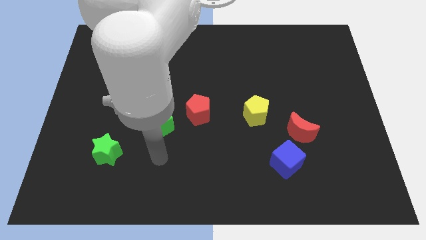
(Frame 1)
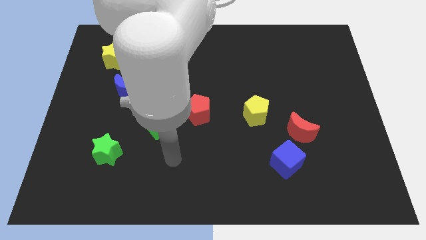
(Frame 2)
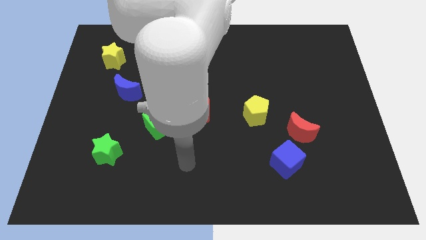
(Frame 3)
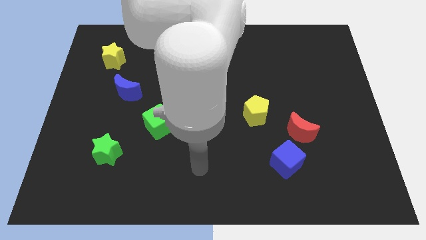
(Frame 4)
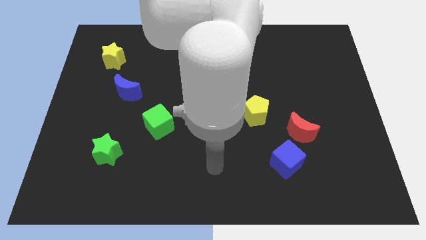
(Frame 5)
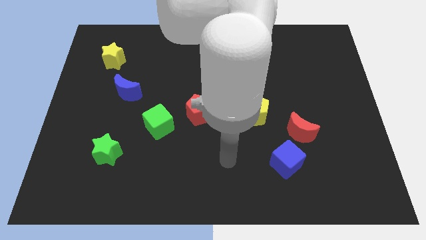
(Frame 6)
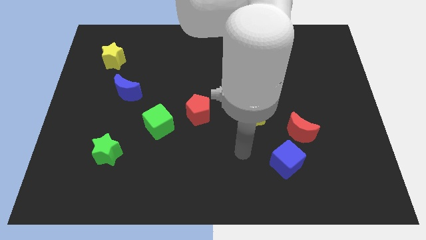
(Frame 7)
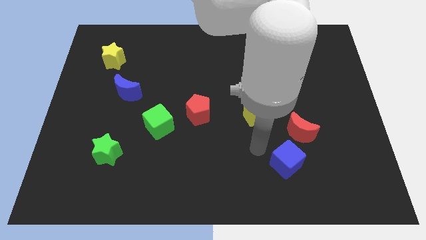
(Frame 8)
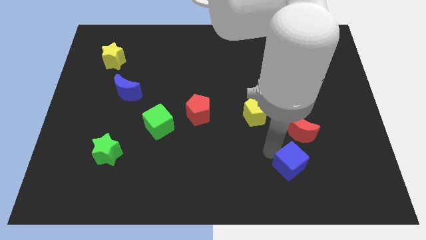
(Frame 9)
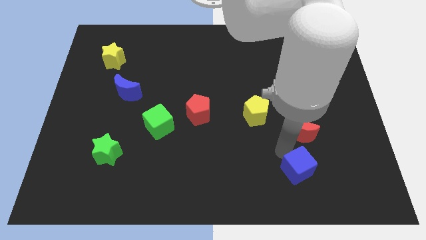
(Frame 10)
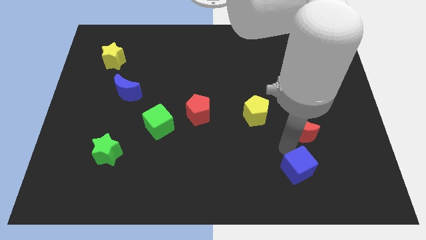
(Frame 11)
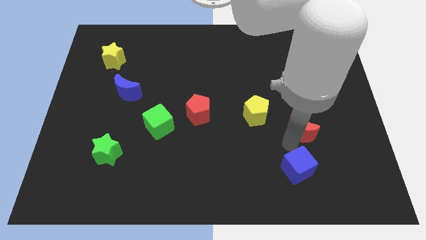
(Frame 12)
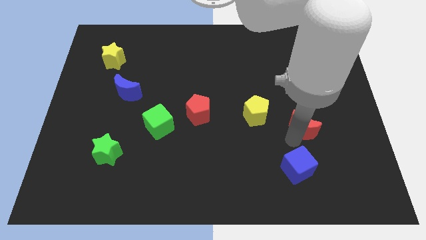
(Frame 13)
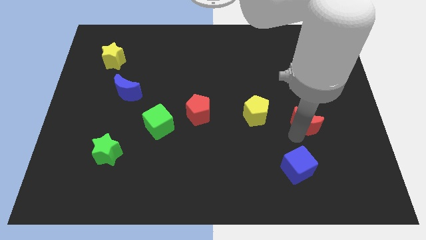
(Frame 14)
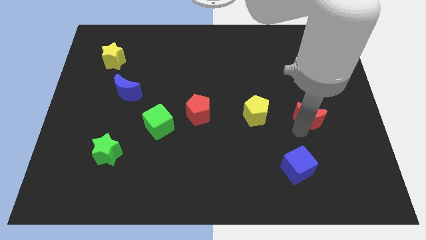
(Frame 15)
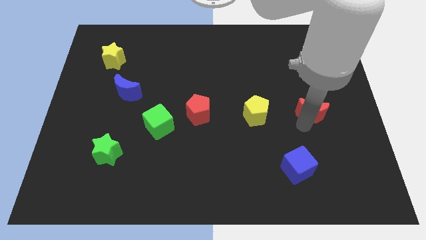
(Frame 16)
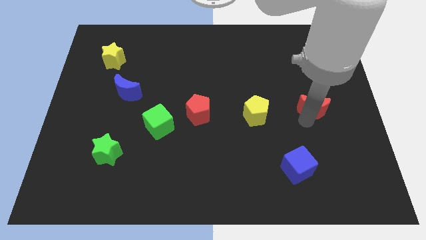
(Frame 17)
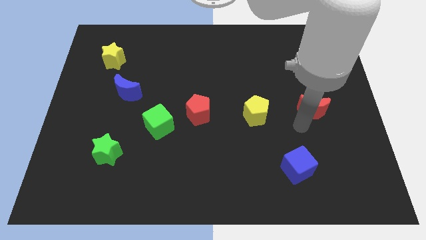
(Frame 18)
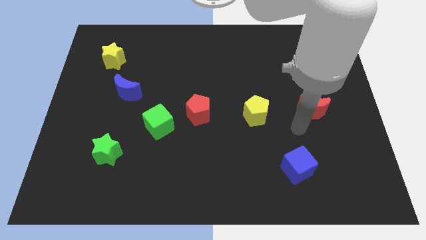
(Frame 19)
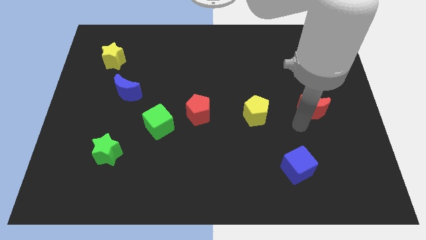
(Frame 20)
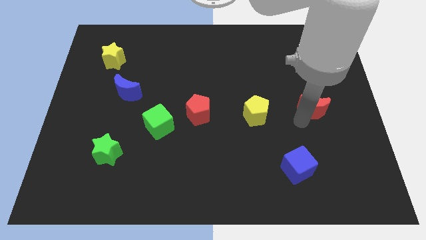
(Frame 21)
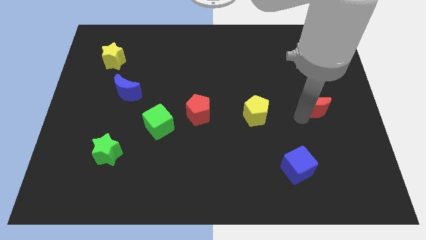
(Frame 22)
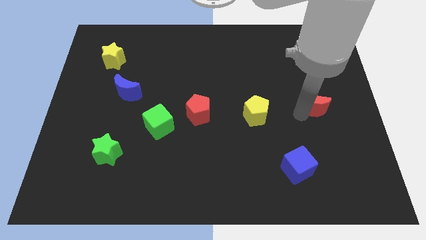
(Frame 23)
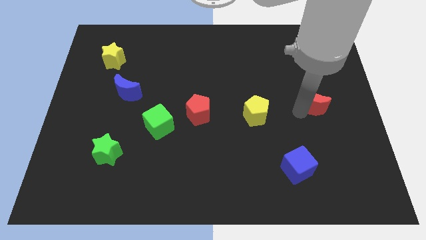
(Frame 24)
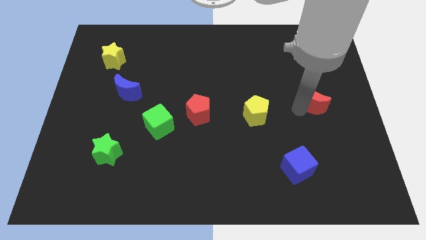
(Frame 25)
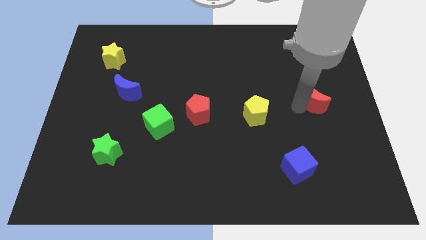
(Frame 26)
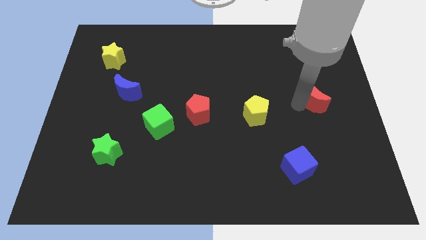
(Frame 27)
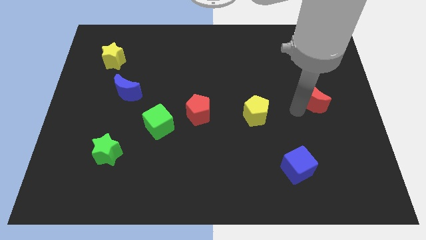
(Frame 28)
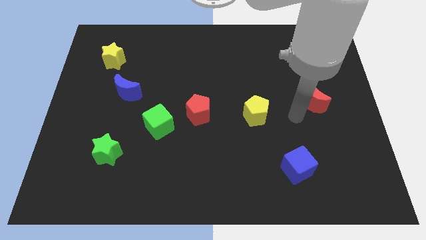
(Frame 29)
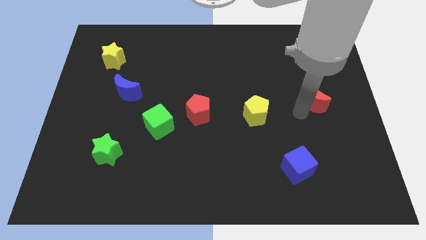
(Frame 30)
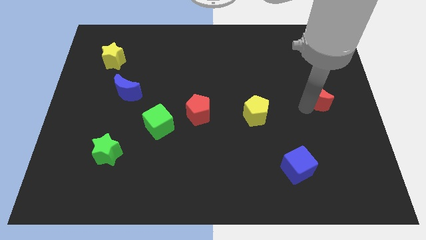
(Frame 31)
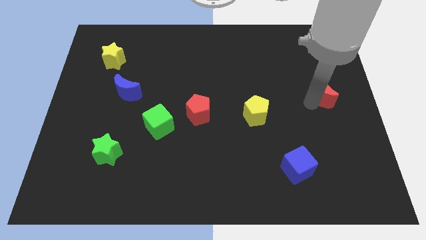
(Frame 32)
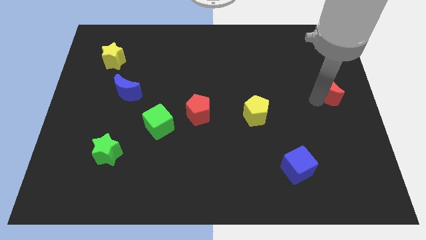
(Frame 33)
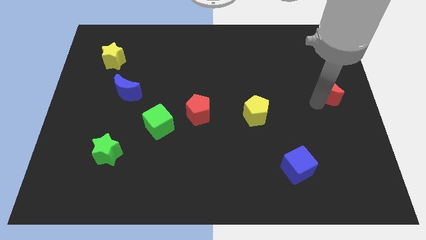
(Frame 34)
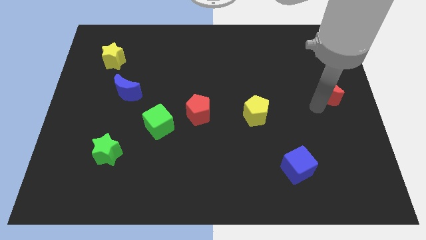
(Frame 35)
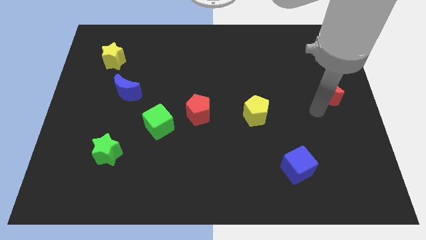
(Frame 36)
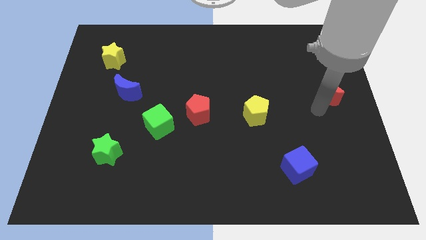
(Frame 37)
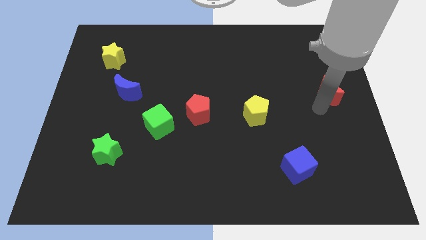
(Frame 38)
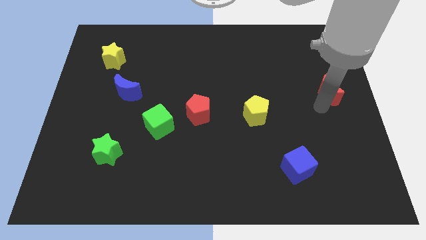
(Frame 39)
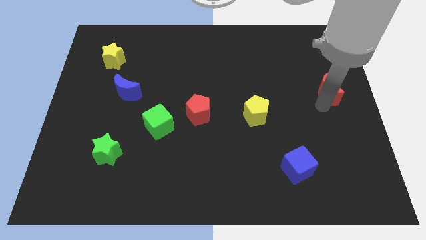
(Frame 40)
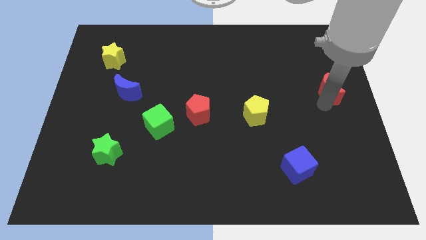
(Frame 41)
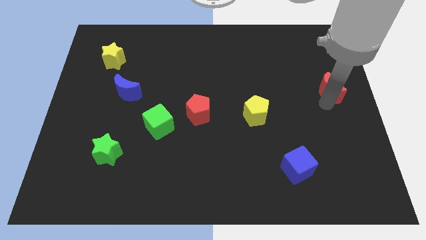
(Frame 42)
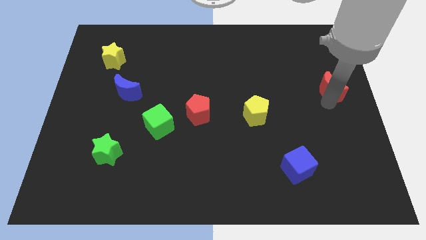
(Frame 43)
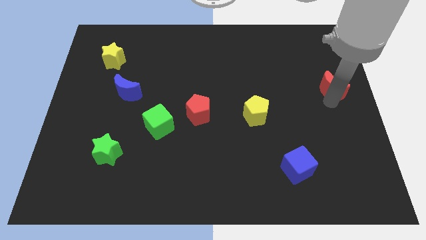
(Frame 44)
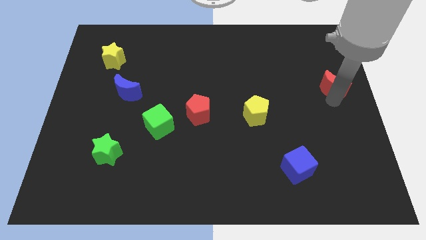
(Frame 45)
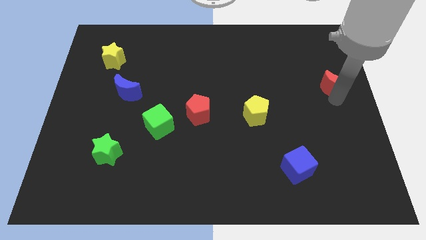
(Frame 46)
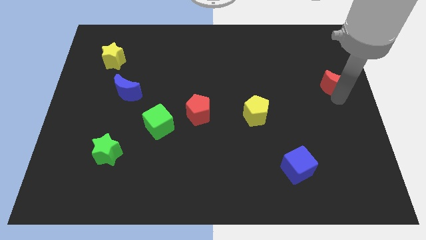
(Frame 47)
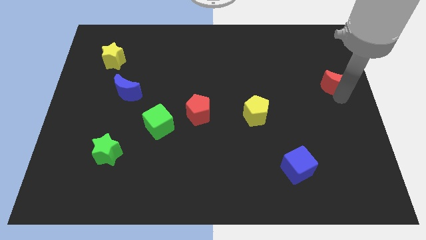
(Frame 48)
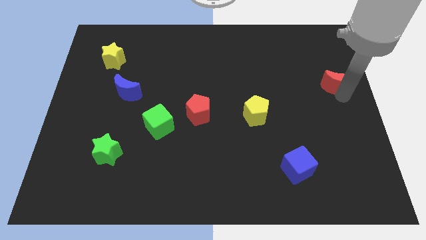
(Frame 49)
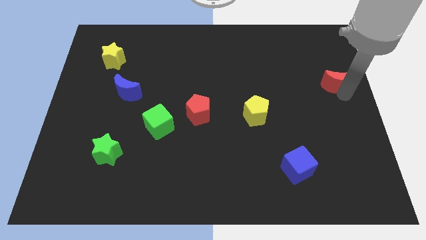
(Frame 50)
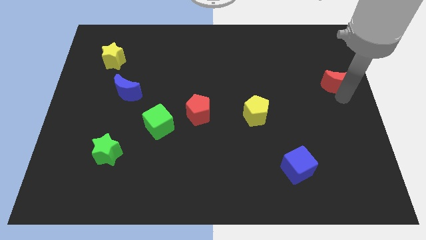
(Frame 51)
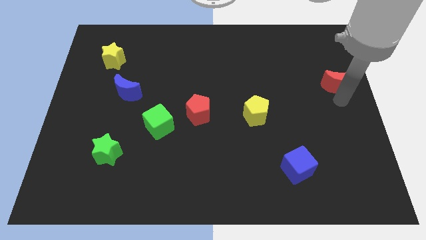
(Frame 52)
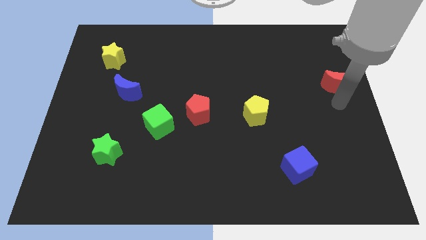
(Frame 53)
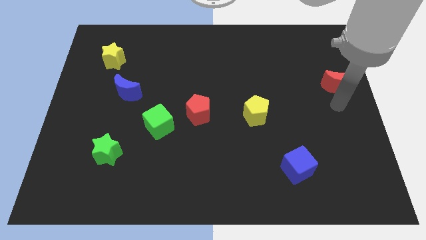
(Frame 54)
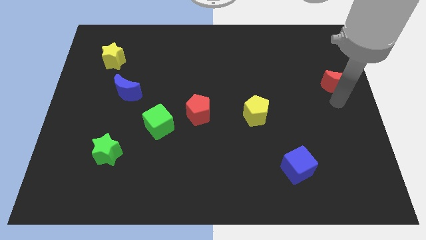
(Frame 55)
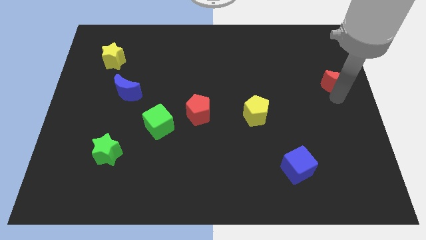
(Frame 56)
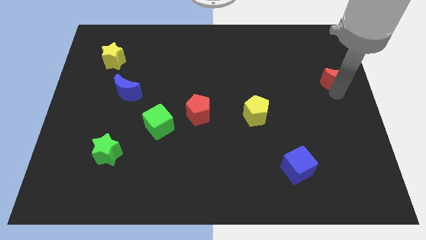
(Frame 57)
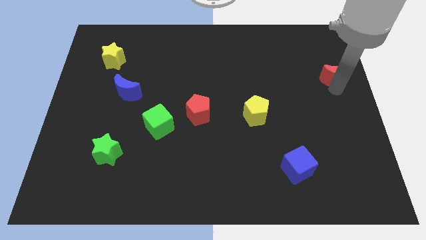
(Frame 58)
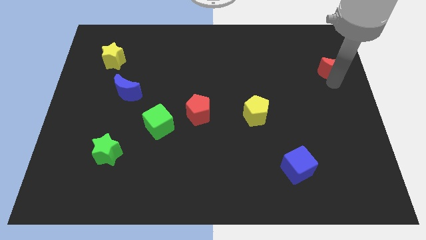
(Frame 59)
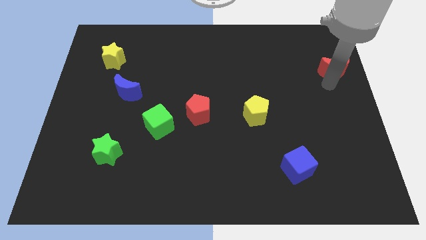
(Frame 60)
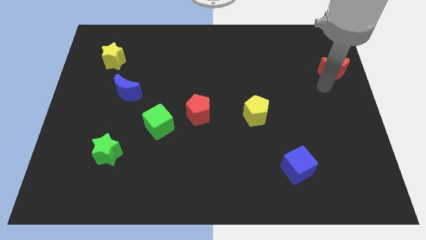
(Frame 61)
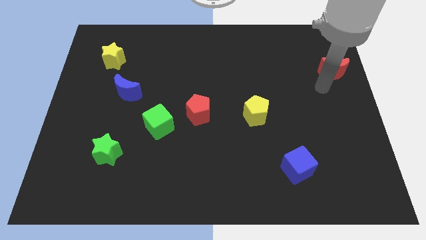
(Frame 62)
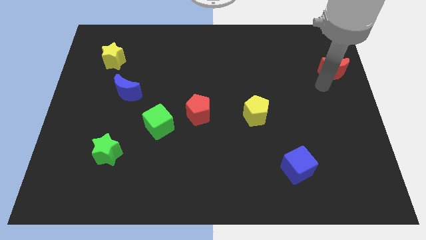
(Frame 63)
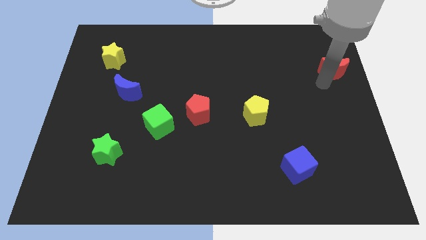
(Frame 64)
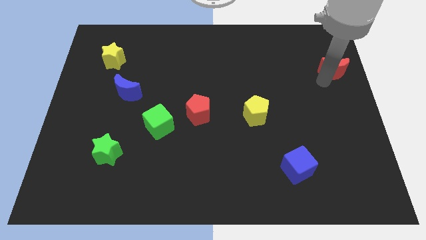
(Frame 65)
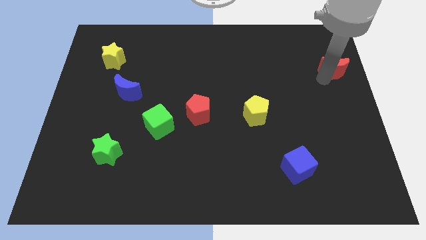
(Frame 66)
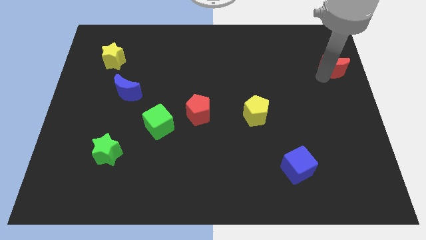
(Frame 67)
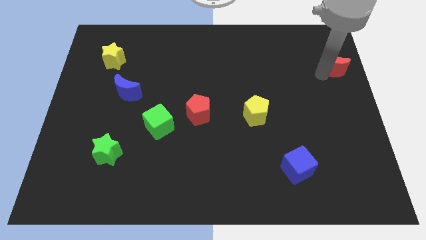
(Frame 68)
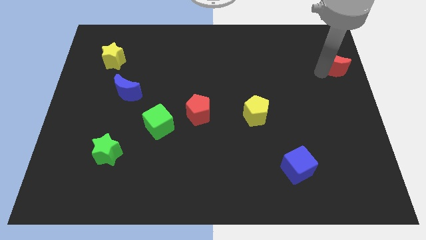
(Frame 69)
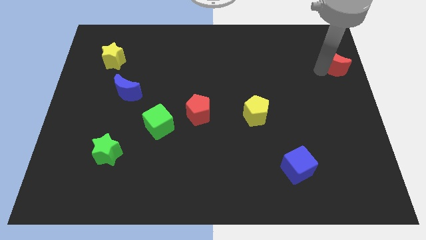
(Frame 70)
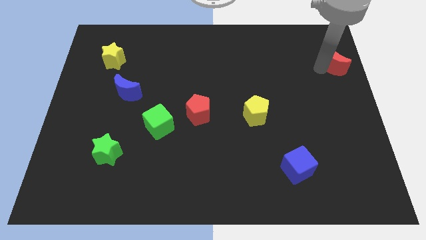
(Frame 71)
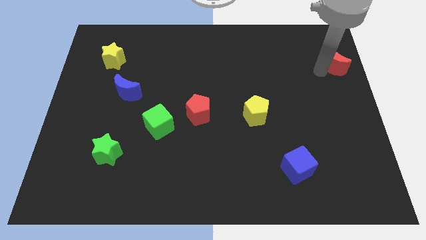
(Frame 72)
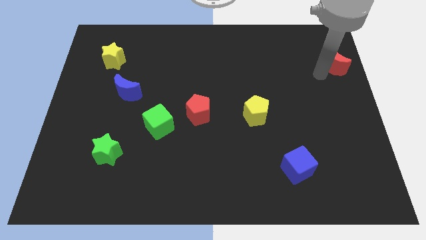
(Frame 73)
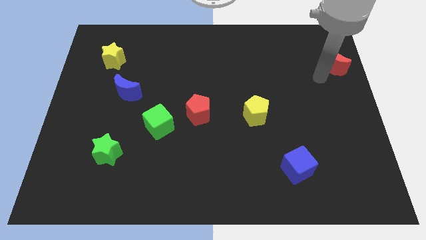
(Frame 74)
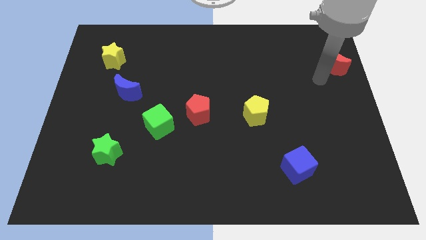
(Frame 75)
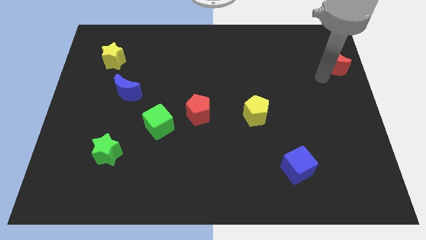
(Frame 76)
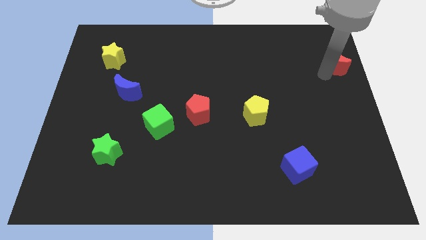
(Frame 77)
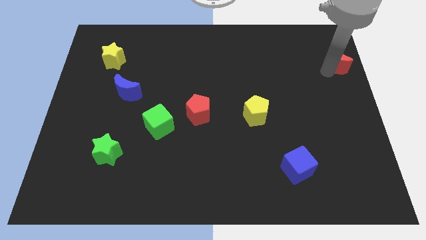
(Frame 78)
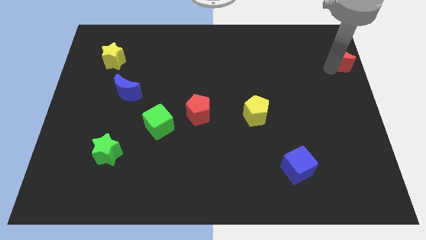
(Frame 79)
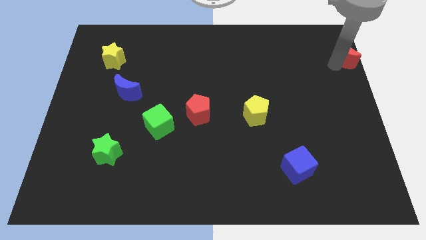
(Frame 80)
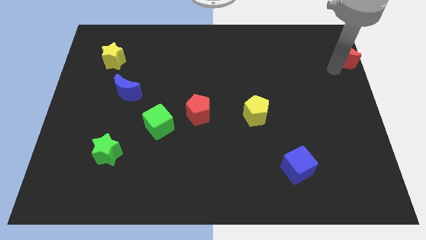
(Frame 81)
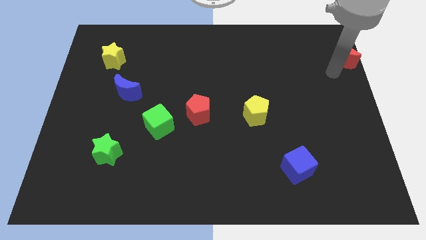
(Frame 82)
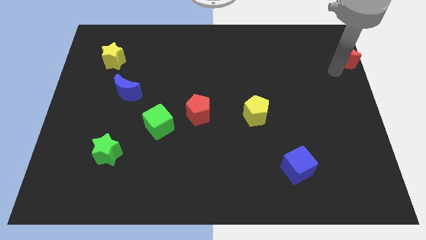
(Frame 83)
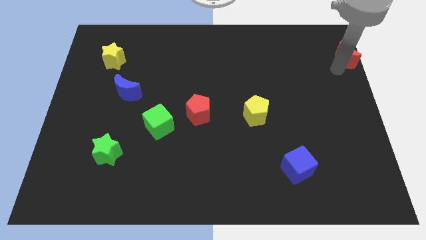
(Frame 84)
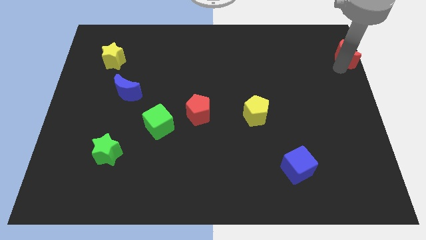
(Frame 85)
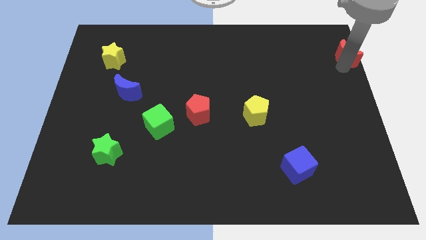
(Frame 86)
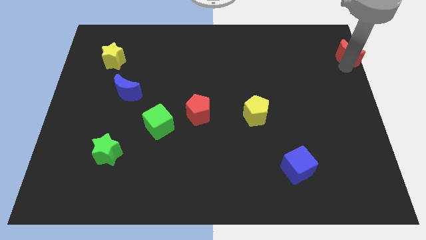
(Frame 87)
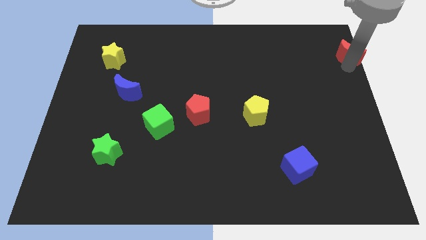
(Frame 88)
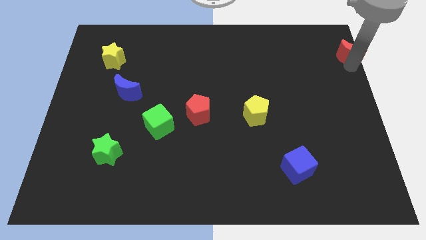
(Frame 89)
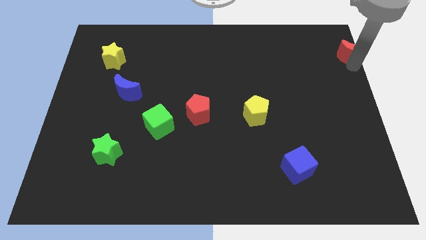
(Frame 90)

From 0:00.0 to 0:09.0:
slide the red moon to the top right
